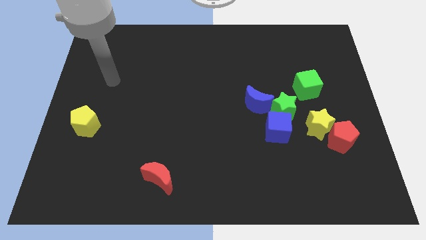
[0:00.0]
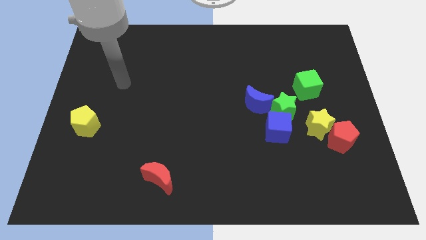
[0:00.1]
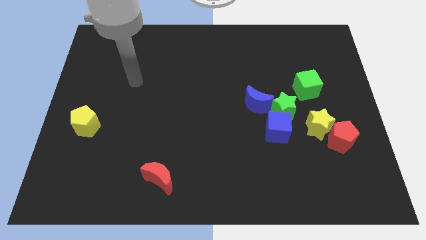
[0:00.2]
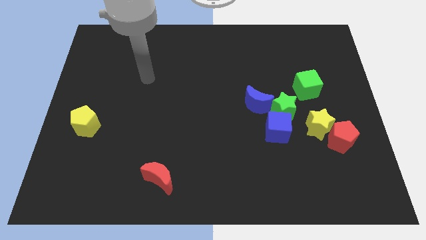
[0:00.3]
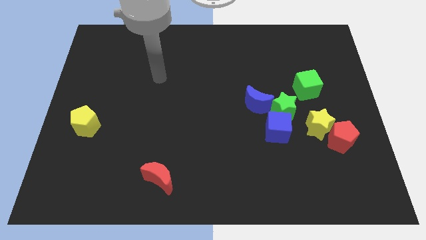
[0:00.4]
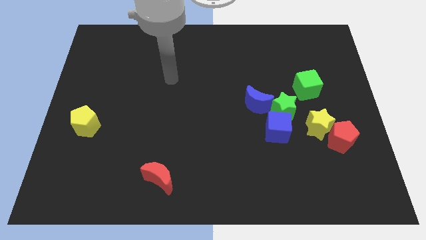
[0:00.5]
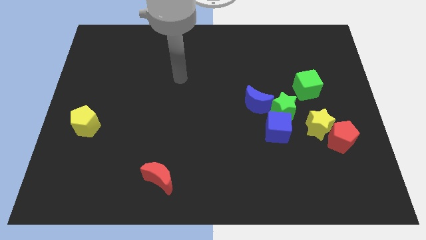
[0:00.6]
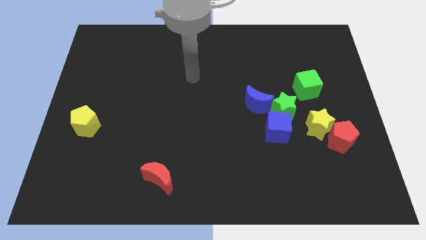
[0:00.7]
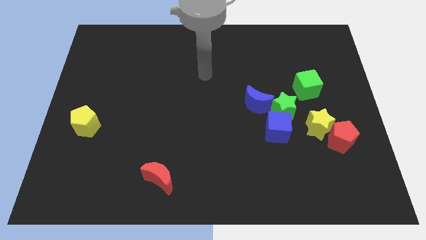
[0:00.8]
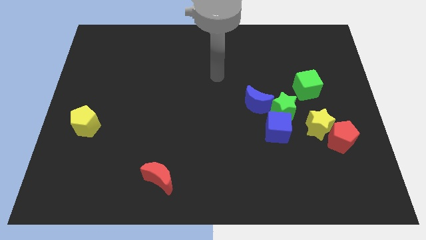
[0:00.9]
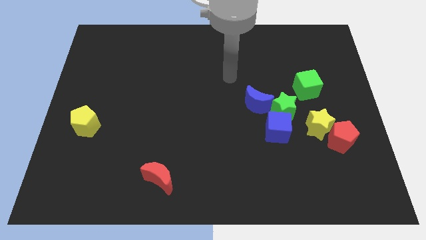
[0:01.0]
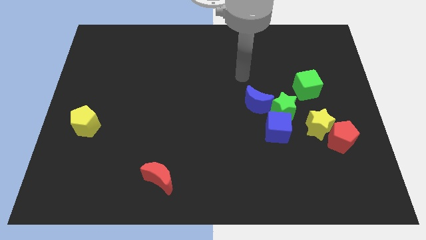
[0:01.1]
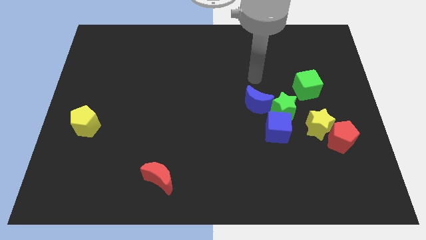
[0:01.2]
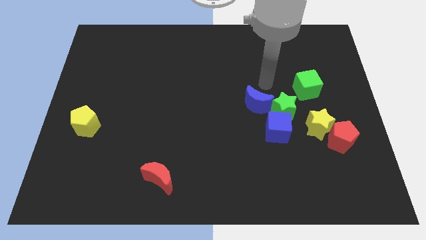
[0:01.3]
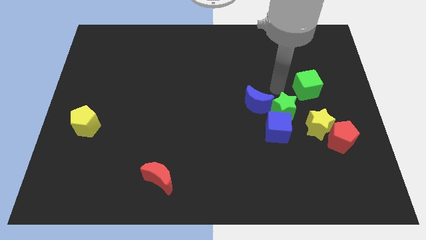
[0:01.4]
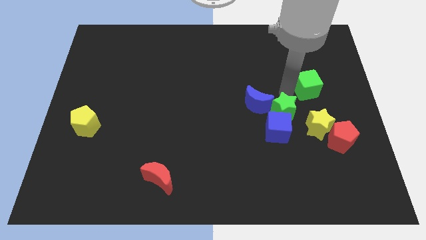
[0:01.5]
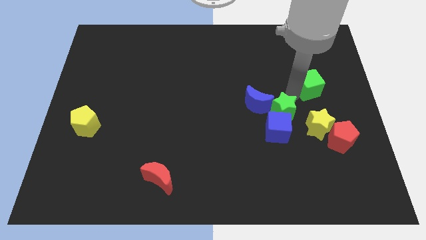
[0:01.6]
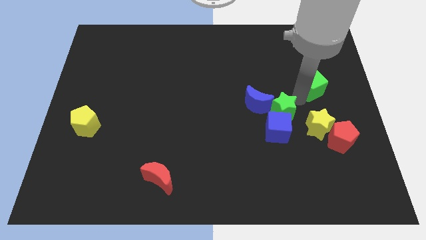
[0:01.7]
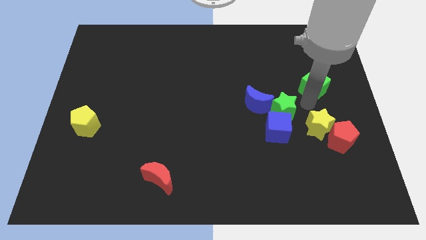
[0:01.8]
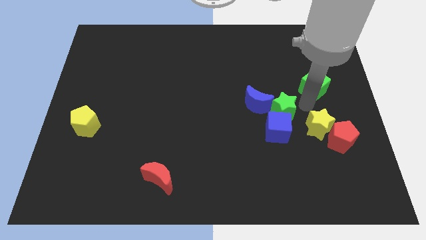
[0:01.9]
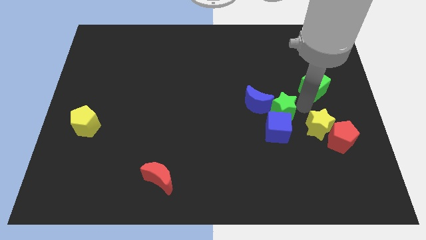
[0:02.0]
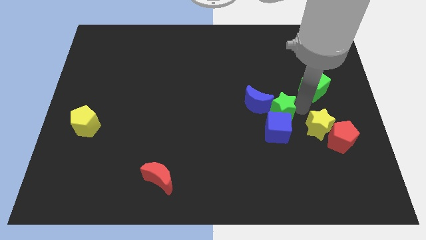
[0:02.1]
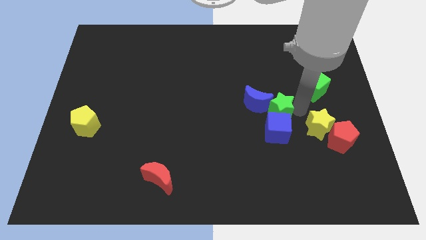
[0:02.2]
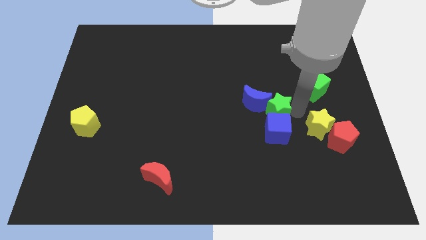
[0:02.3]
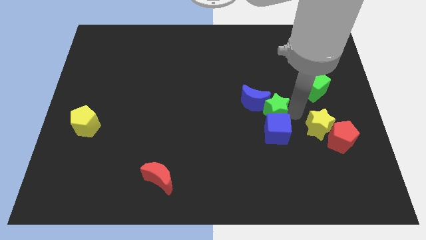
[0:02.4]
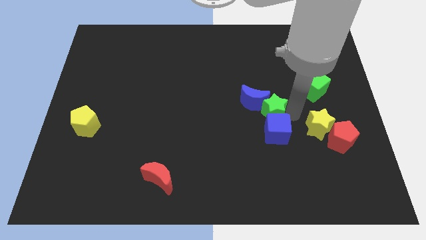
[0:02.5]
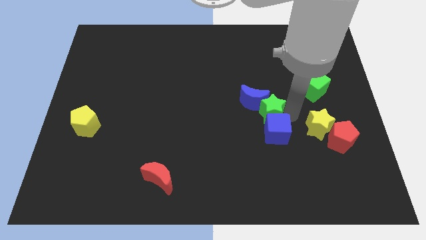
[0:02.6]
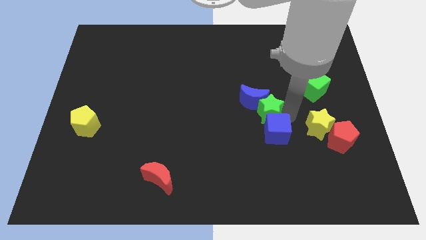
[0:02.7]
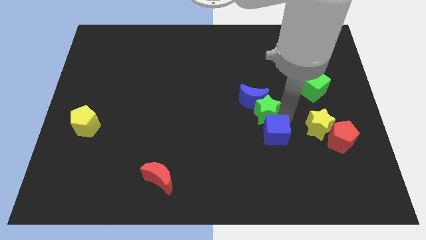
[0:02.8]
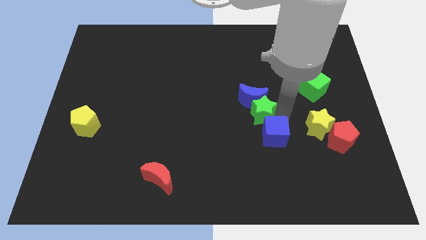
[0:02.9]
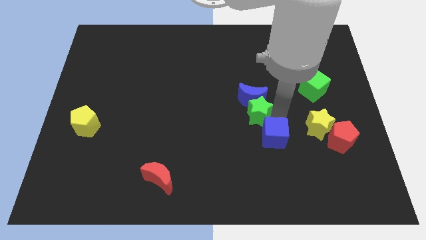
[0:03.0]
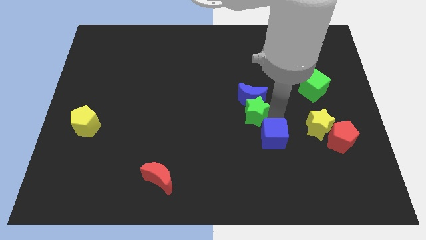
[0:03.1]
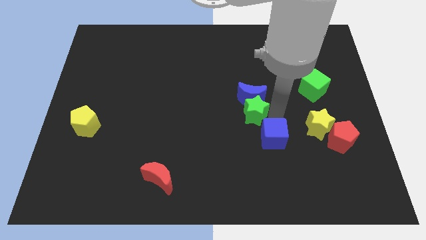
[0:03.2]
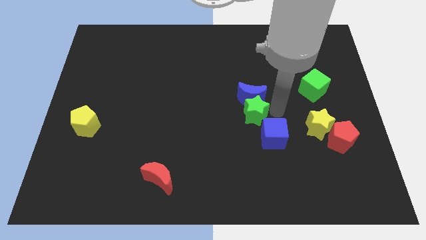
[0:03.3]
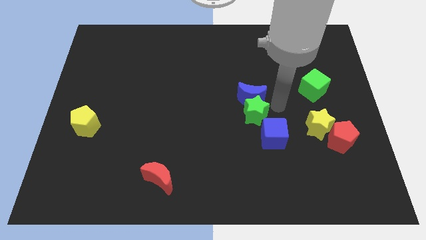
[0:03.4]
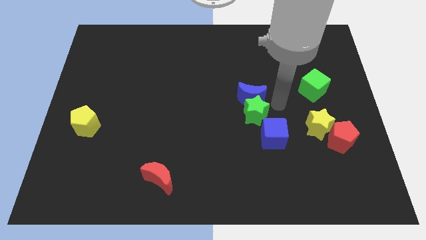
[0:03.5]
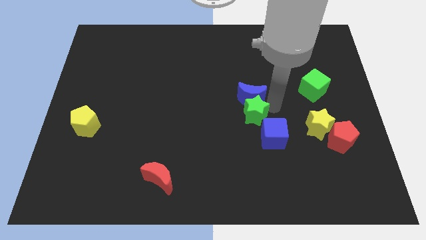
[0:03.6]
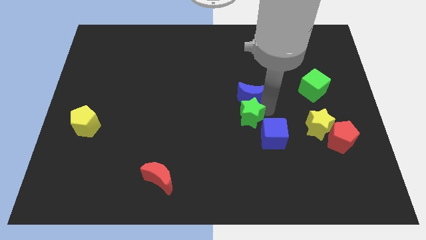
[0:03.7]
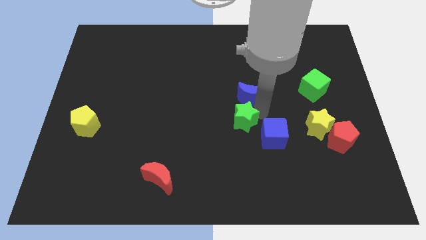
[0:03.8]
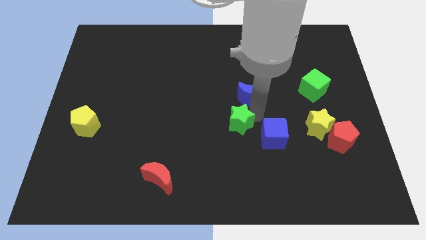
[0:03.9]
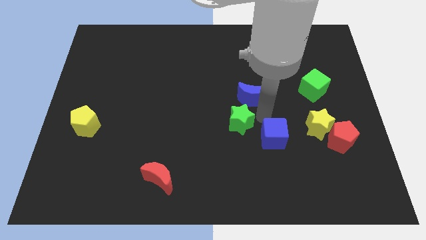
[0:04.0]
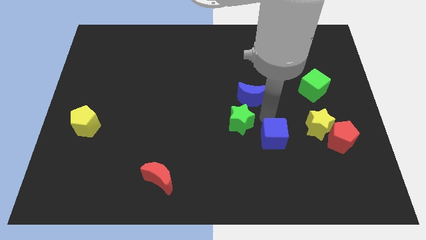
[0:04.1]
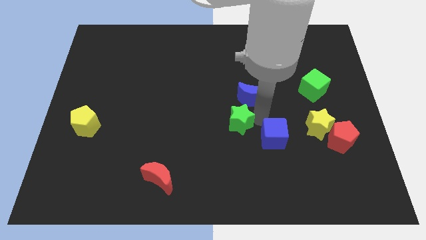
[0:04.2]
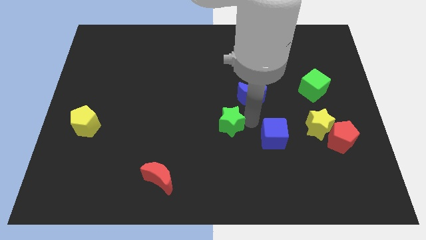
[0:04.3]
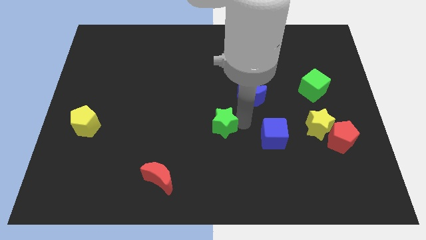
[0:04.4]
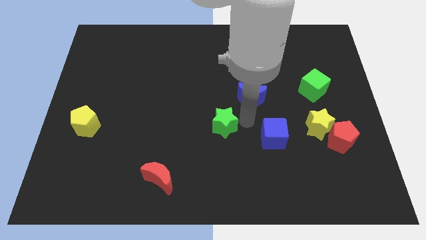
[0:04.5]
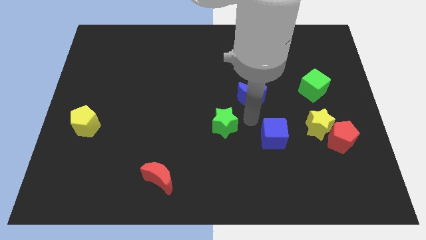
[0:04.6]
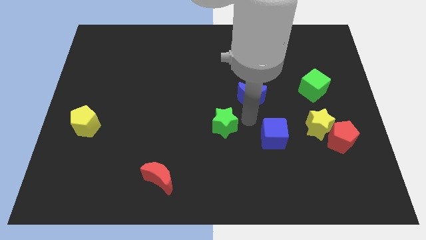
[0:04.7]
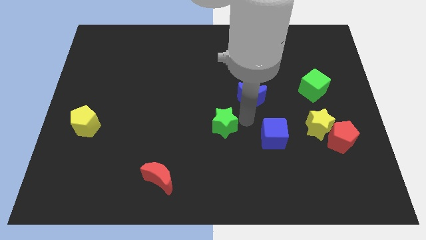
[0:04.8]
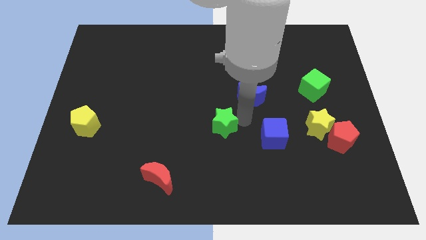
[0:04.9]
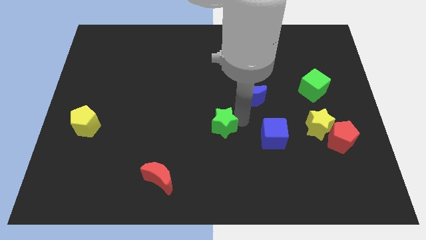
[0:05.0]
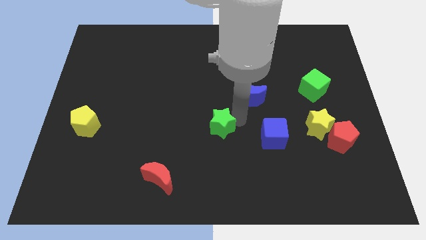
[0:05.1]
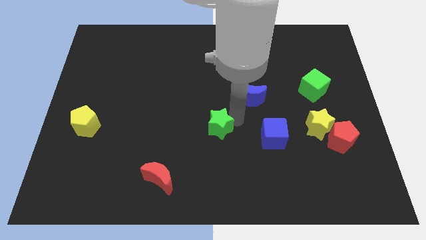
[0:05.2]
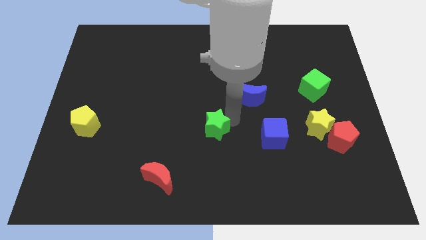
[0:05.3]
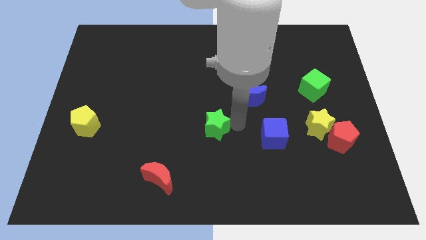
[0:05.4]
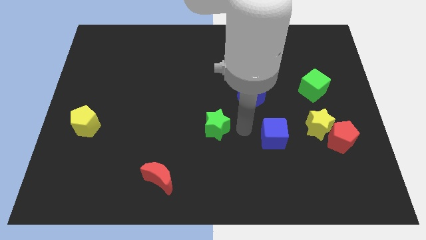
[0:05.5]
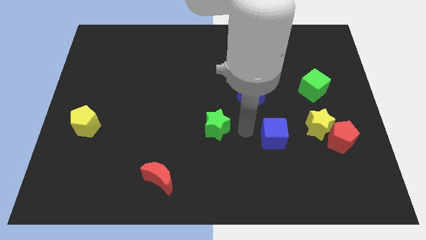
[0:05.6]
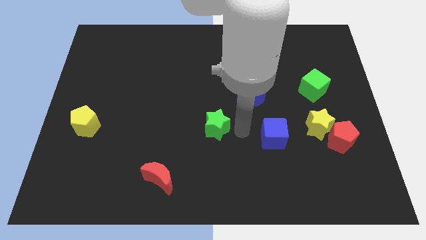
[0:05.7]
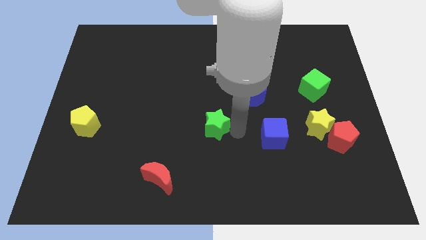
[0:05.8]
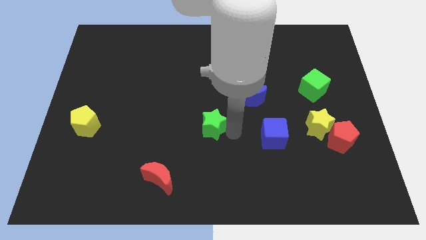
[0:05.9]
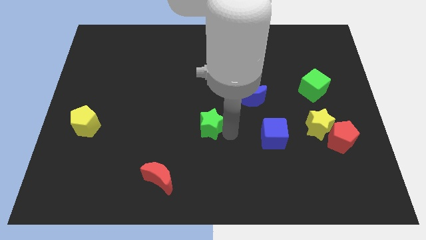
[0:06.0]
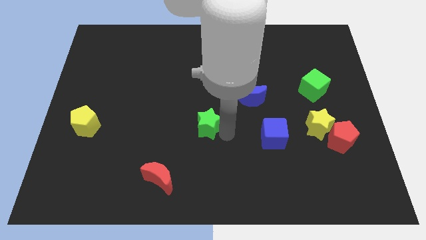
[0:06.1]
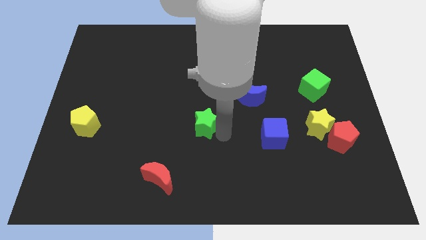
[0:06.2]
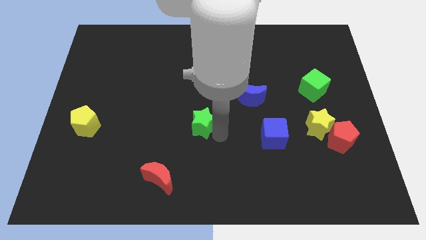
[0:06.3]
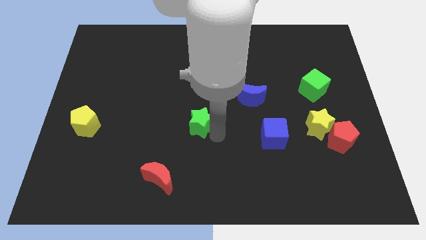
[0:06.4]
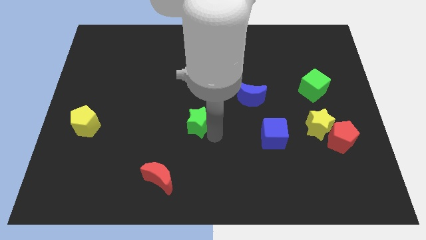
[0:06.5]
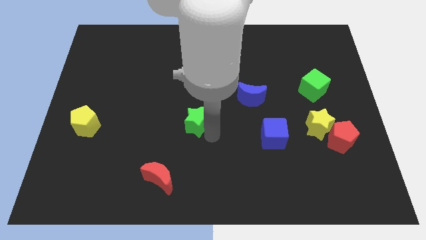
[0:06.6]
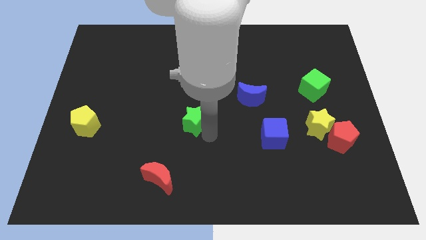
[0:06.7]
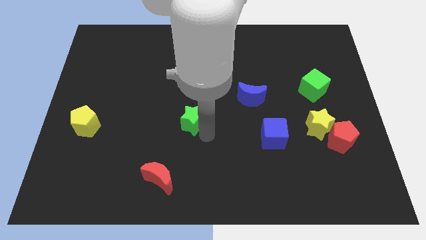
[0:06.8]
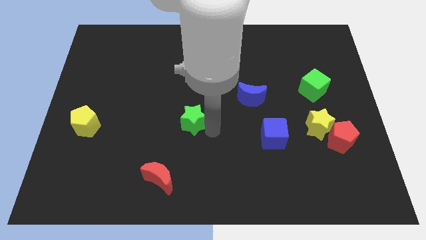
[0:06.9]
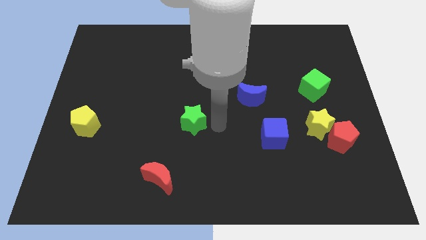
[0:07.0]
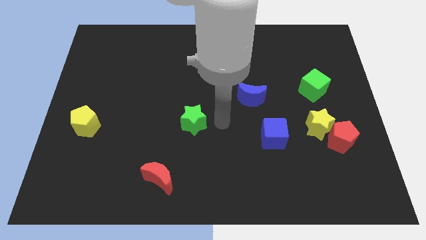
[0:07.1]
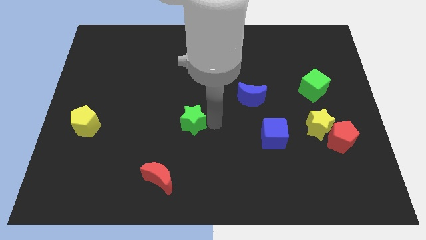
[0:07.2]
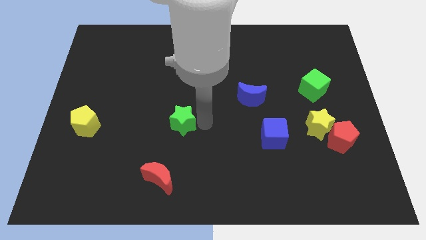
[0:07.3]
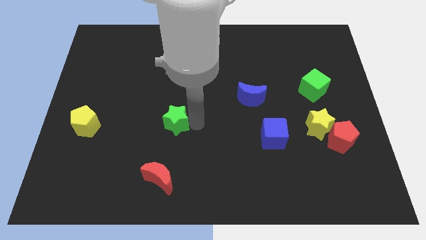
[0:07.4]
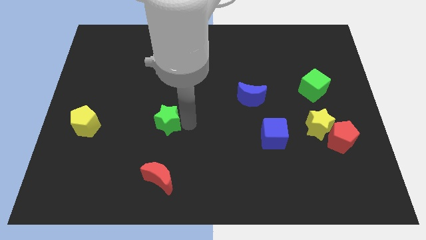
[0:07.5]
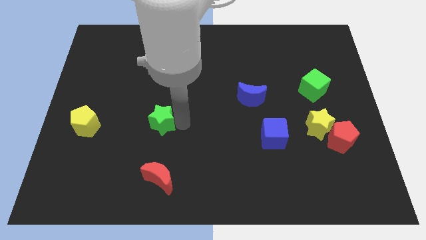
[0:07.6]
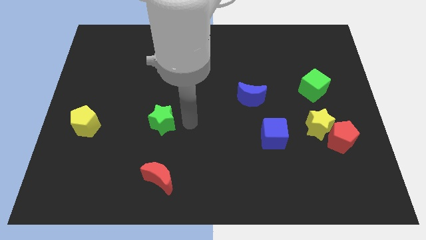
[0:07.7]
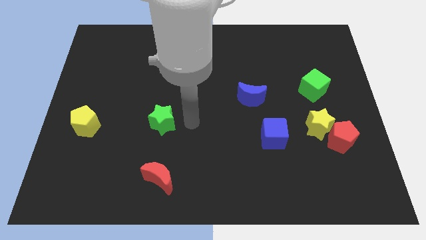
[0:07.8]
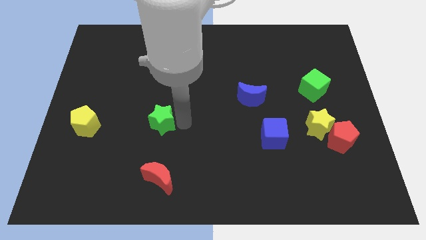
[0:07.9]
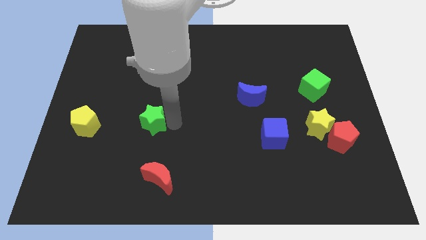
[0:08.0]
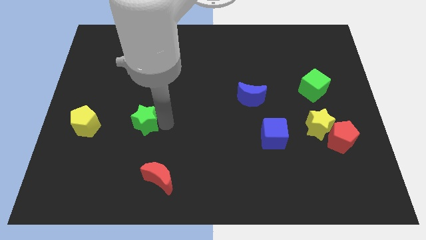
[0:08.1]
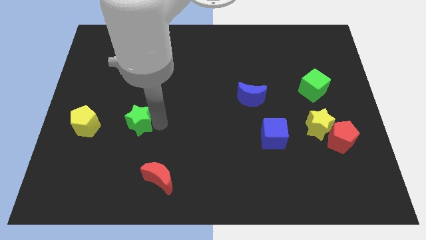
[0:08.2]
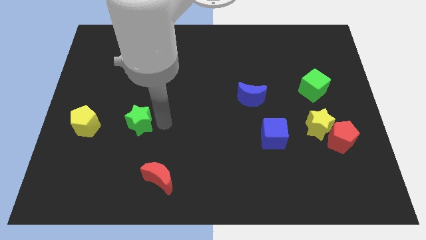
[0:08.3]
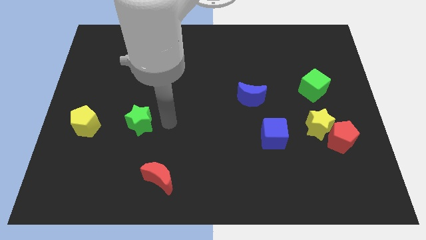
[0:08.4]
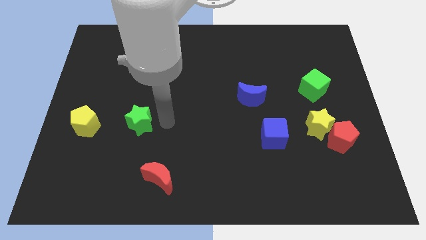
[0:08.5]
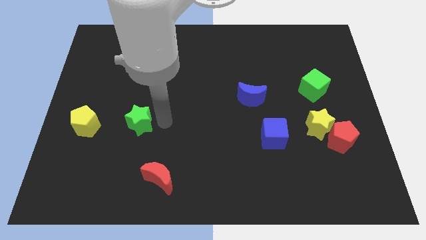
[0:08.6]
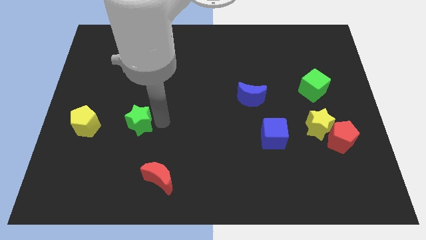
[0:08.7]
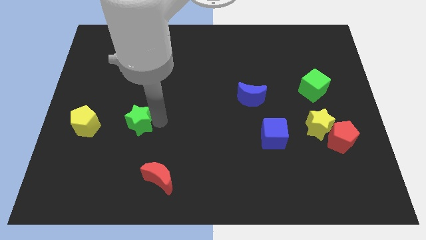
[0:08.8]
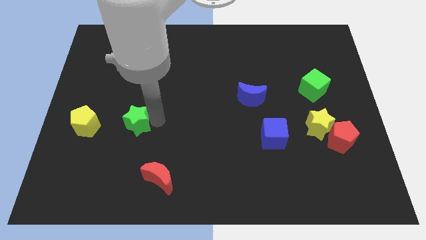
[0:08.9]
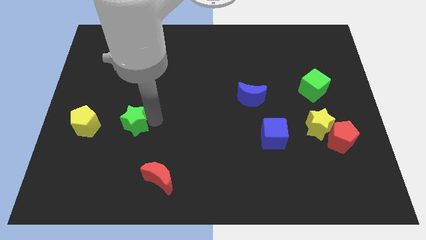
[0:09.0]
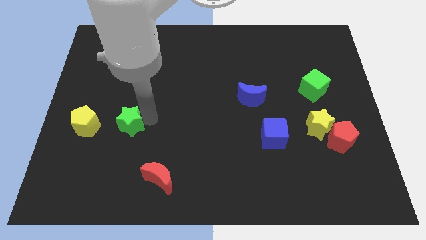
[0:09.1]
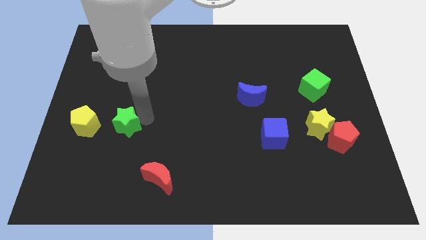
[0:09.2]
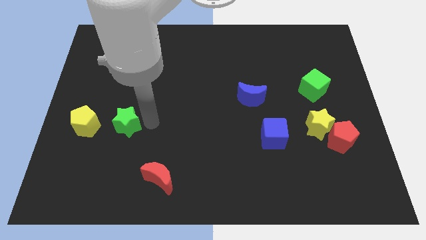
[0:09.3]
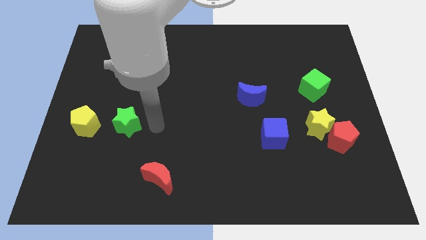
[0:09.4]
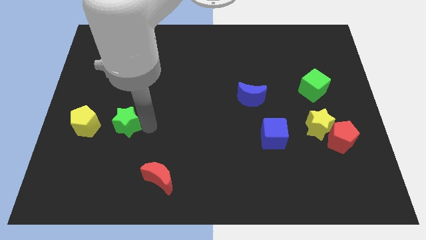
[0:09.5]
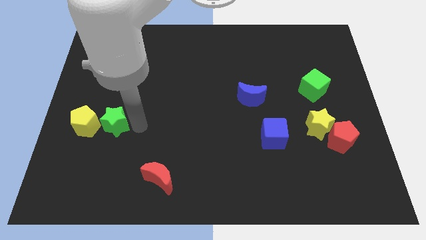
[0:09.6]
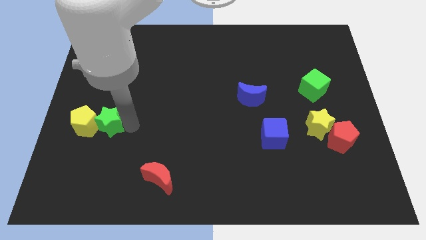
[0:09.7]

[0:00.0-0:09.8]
push the green star to the yellow pentagon
